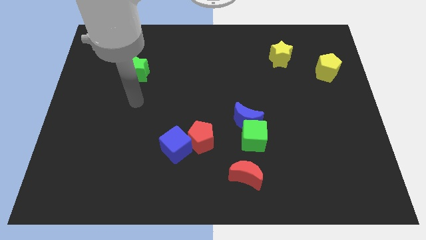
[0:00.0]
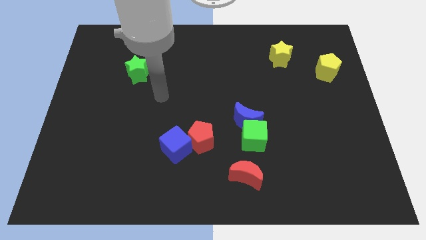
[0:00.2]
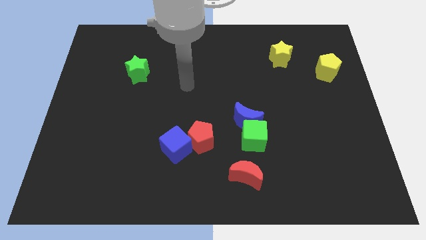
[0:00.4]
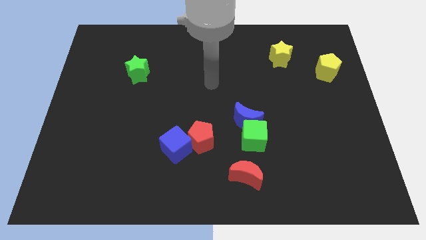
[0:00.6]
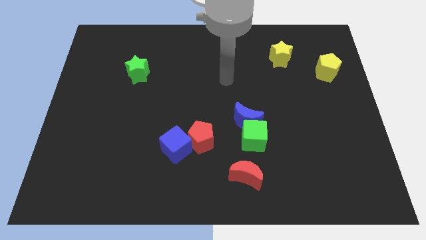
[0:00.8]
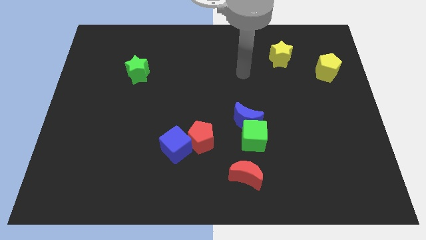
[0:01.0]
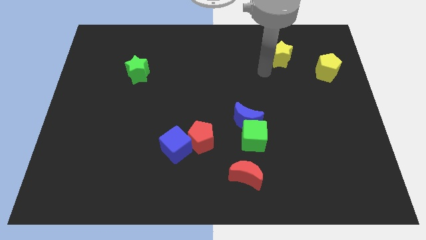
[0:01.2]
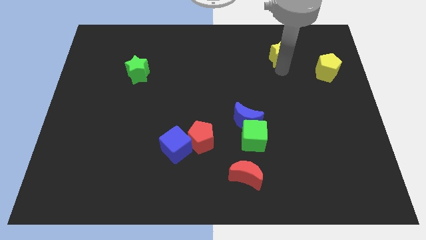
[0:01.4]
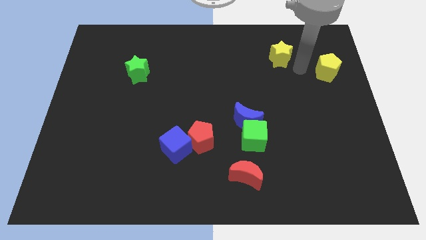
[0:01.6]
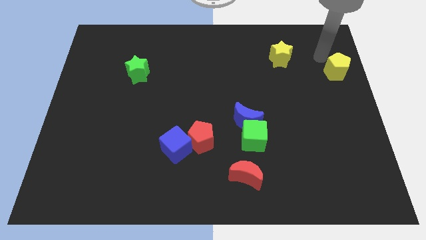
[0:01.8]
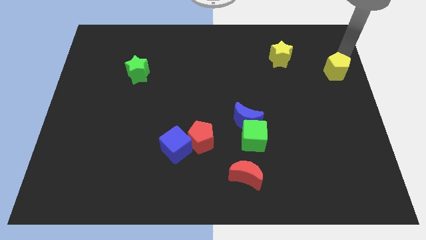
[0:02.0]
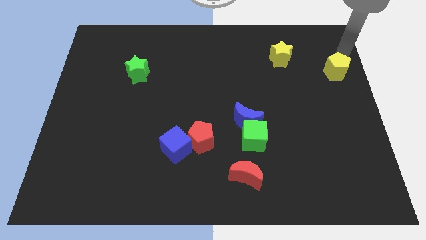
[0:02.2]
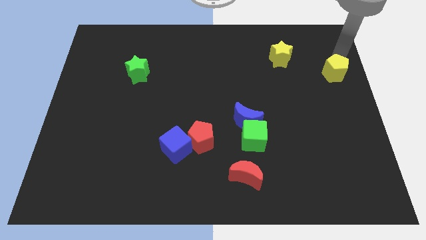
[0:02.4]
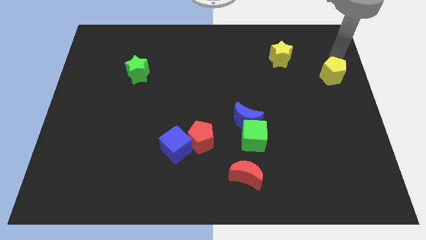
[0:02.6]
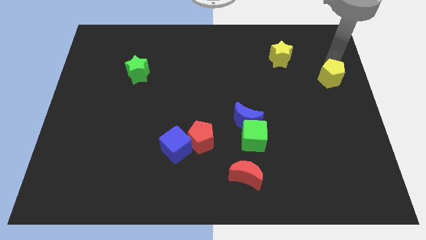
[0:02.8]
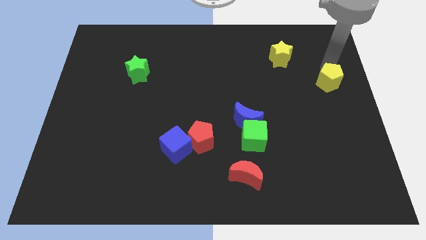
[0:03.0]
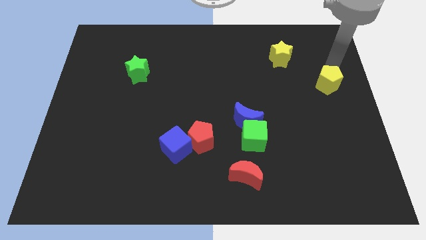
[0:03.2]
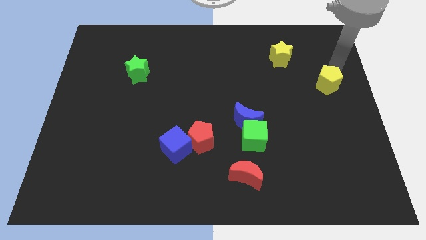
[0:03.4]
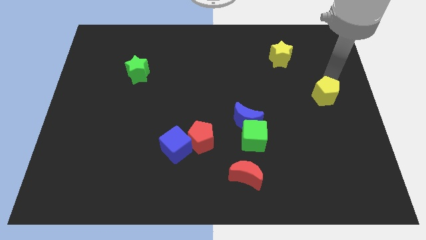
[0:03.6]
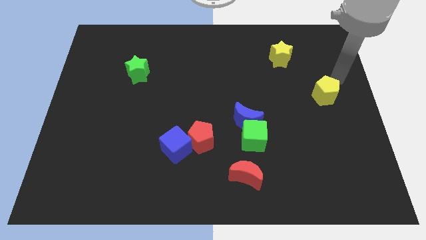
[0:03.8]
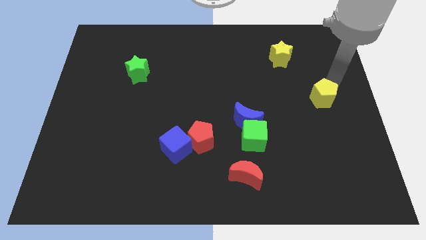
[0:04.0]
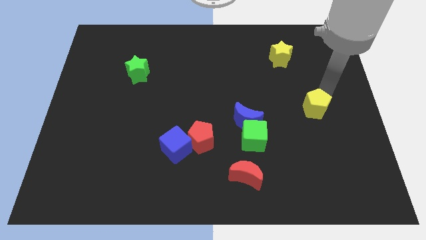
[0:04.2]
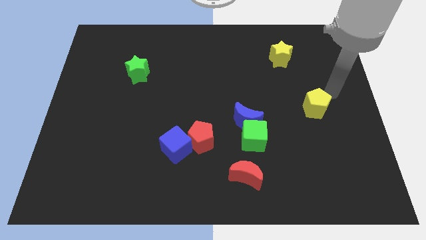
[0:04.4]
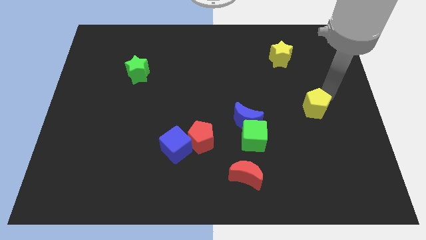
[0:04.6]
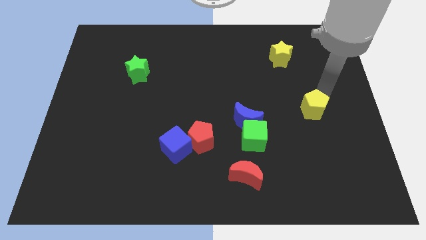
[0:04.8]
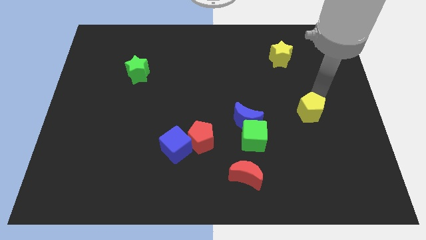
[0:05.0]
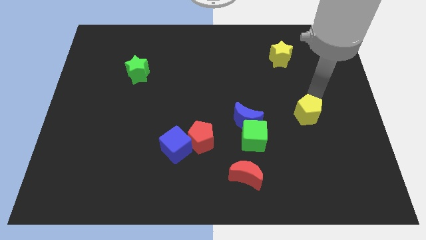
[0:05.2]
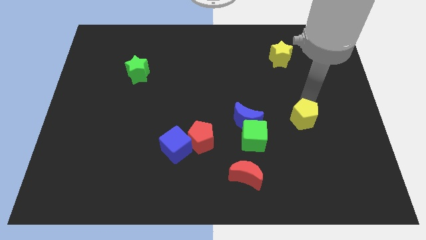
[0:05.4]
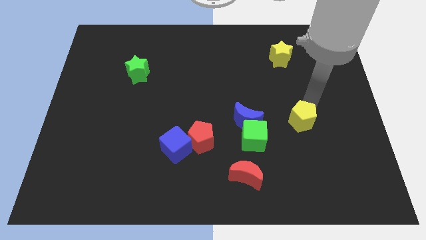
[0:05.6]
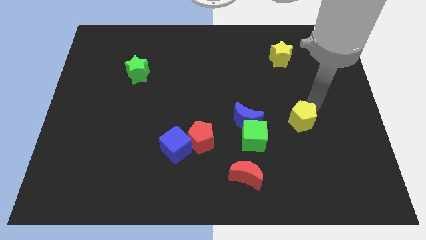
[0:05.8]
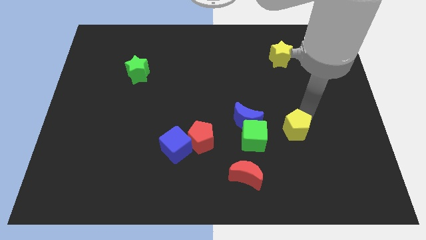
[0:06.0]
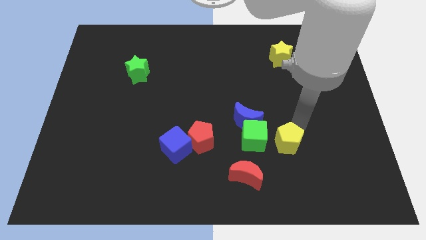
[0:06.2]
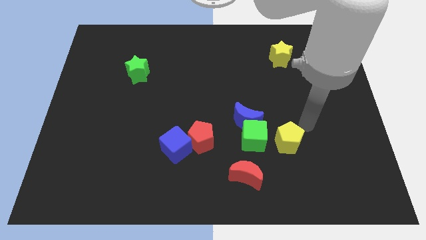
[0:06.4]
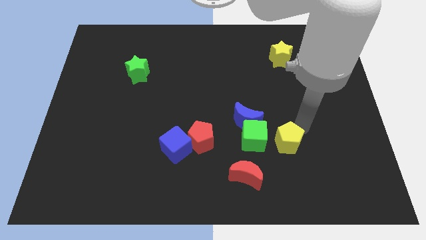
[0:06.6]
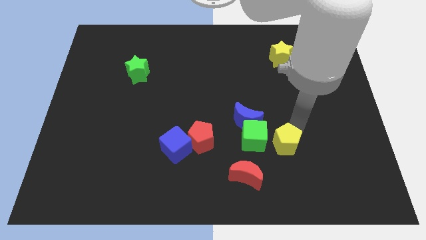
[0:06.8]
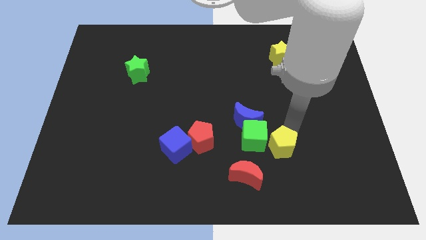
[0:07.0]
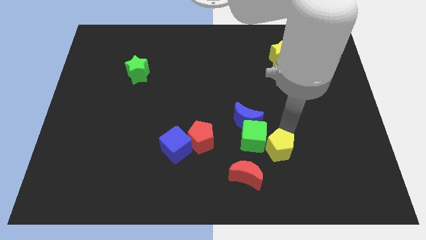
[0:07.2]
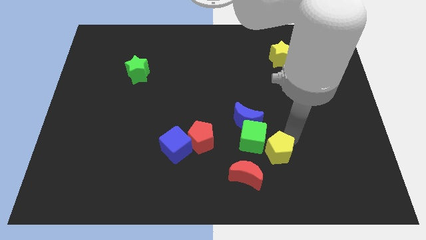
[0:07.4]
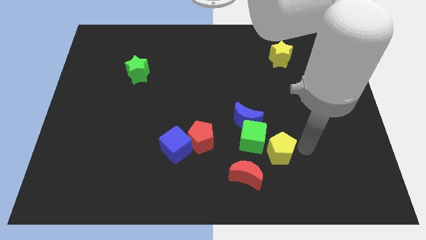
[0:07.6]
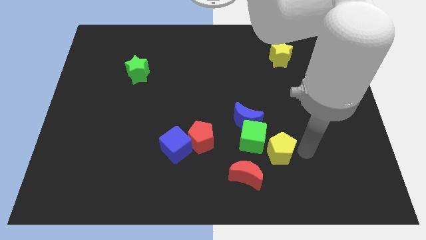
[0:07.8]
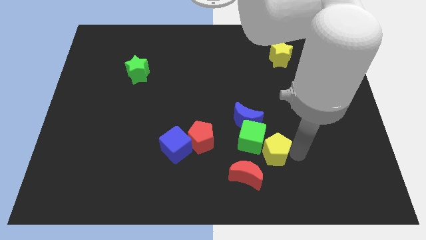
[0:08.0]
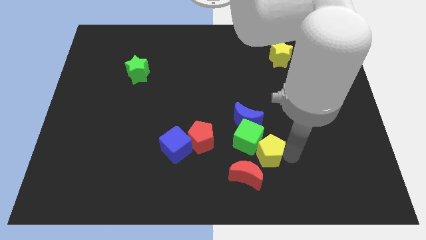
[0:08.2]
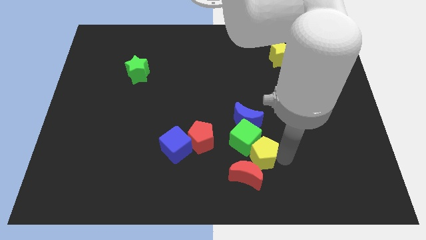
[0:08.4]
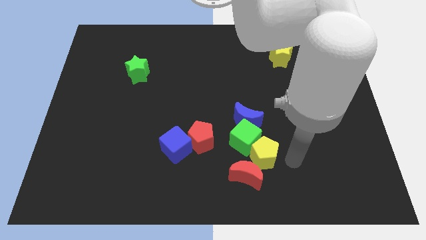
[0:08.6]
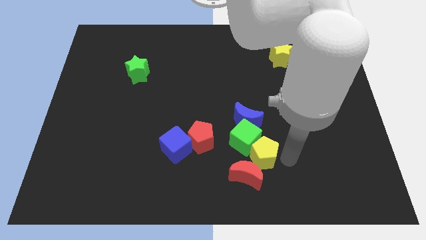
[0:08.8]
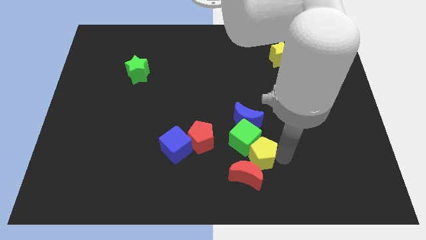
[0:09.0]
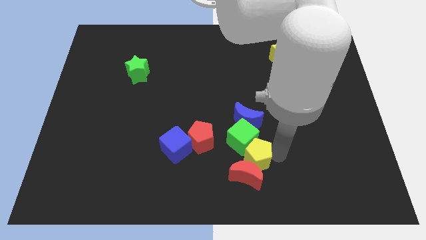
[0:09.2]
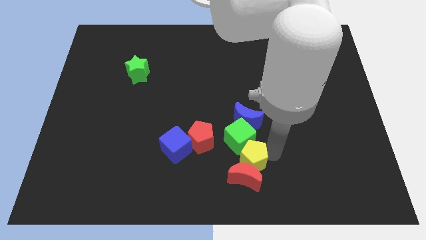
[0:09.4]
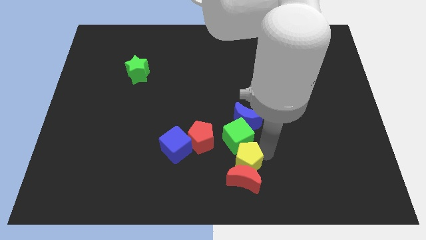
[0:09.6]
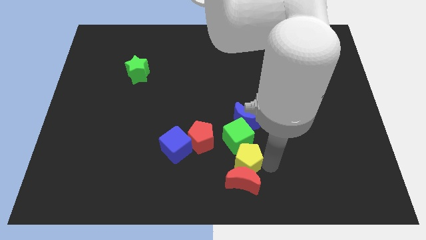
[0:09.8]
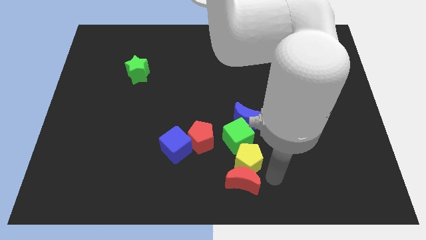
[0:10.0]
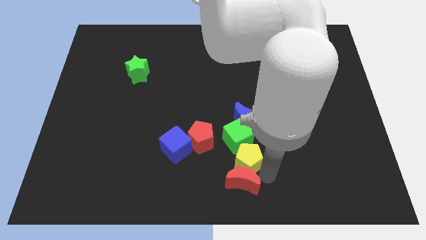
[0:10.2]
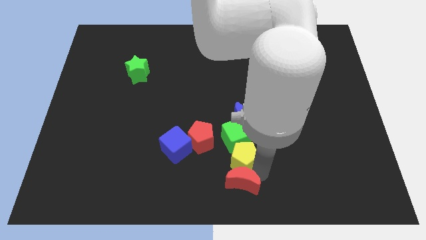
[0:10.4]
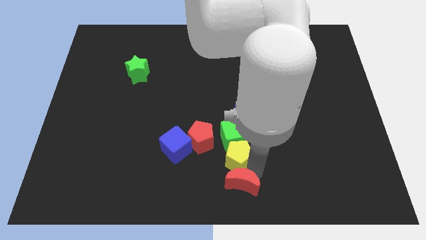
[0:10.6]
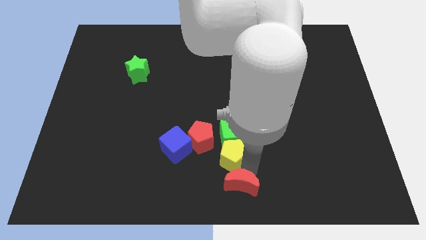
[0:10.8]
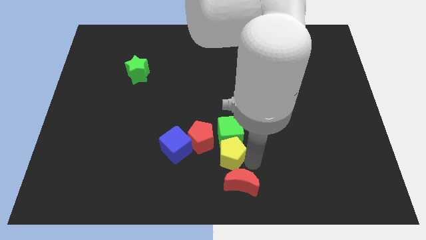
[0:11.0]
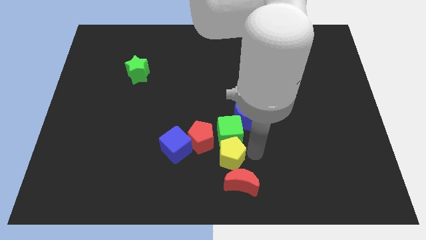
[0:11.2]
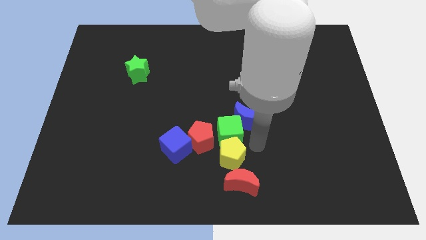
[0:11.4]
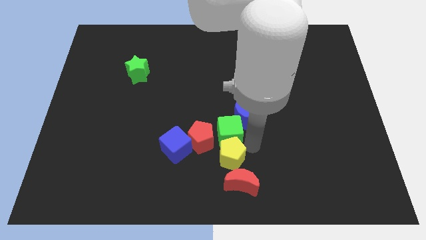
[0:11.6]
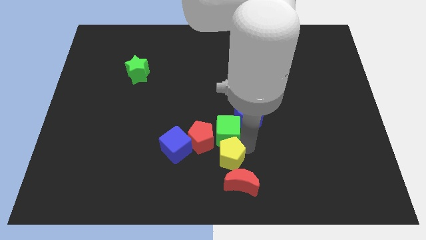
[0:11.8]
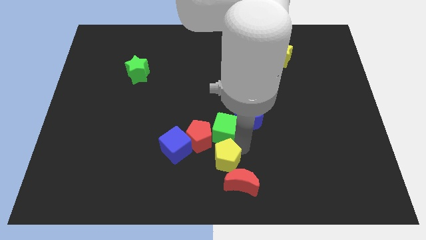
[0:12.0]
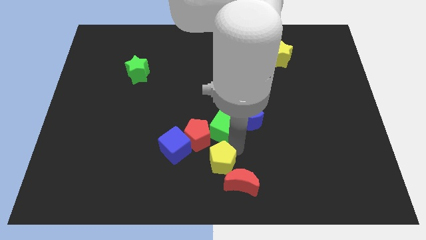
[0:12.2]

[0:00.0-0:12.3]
push the yellow pentagon to the bottom side of the red pentagon

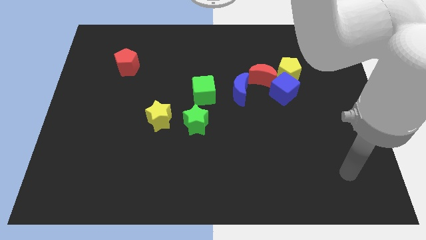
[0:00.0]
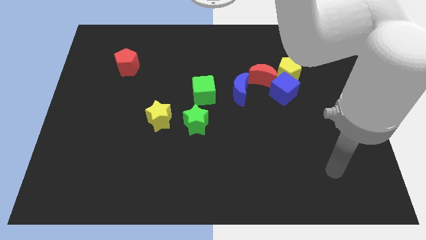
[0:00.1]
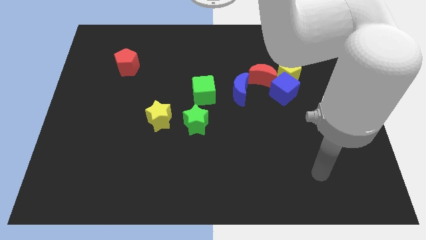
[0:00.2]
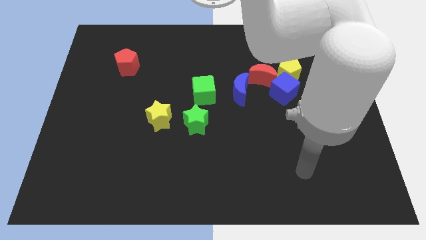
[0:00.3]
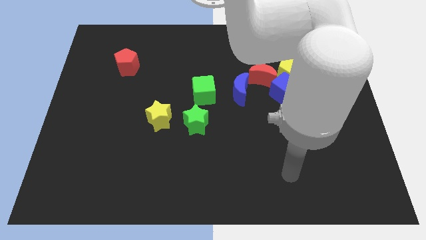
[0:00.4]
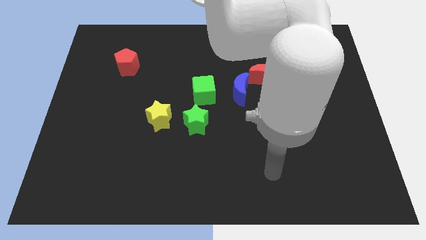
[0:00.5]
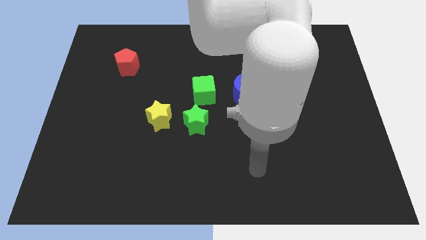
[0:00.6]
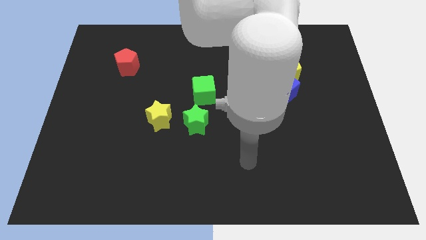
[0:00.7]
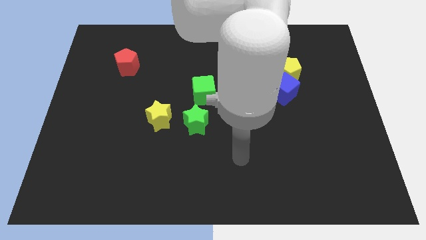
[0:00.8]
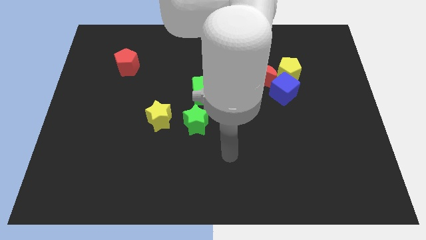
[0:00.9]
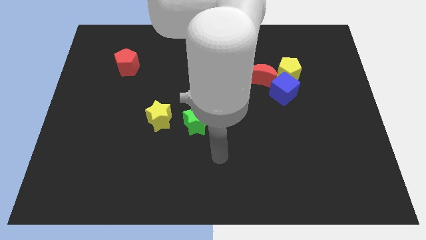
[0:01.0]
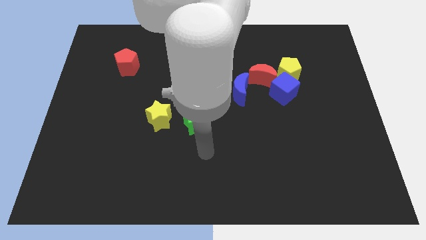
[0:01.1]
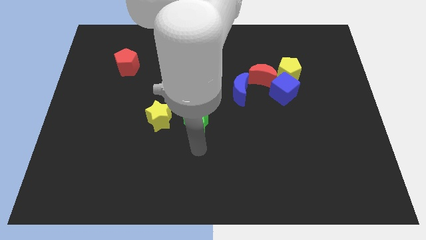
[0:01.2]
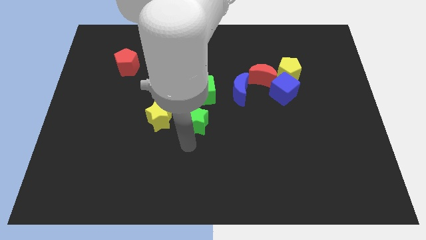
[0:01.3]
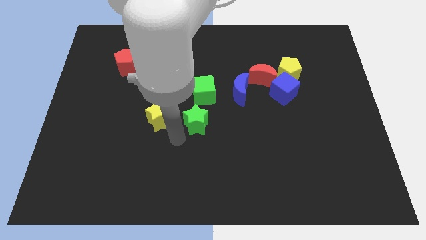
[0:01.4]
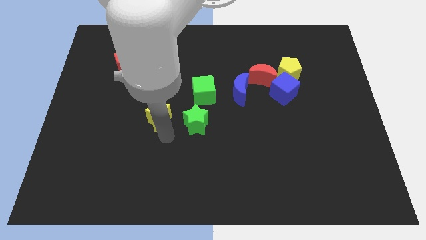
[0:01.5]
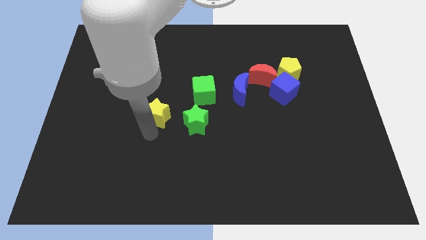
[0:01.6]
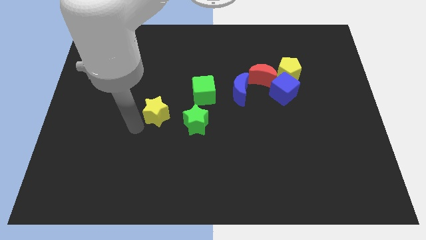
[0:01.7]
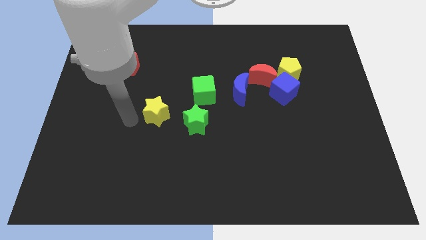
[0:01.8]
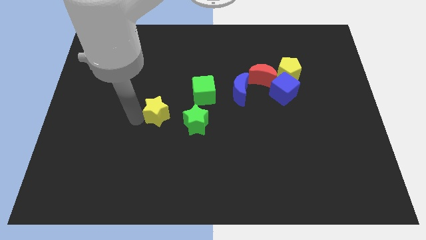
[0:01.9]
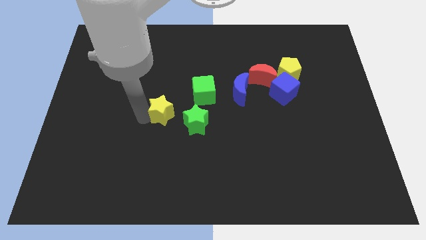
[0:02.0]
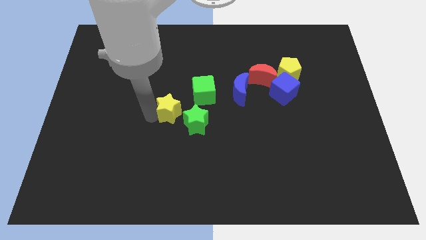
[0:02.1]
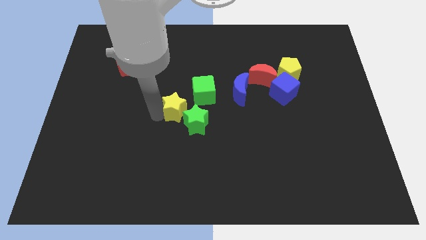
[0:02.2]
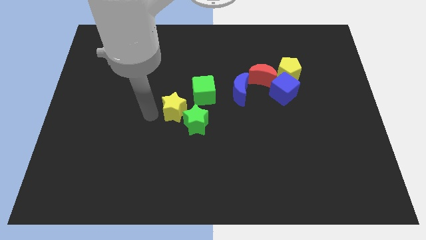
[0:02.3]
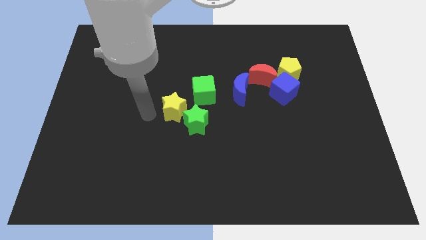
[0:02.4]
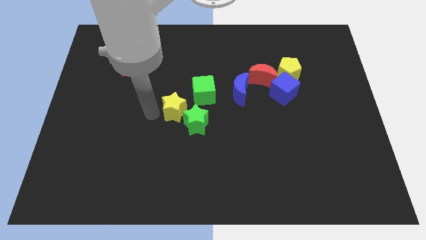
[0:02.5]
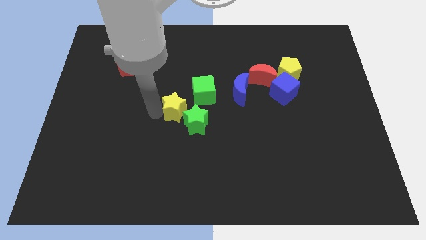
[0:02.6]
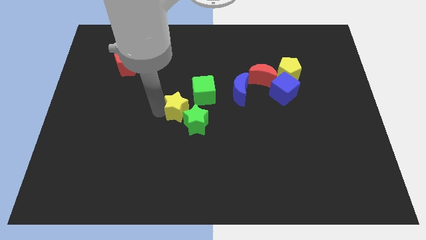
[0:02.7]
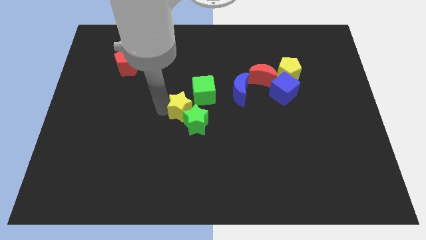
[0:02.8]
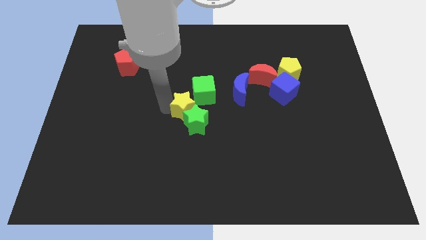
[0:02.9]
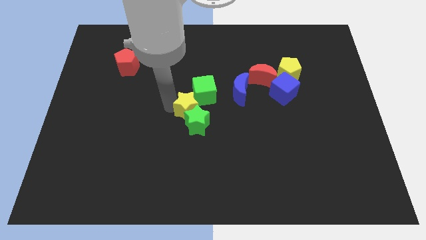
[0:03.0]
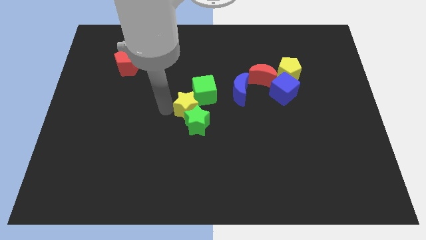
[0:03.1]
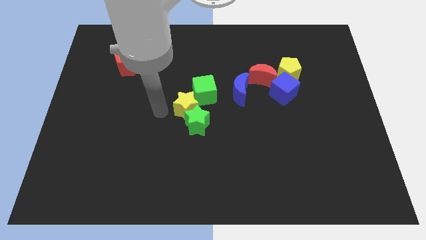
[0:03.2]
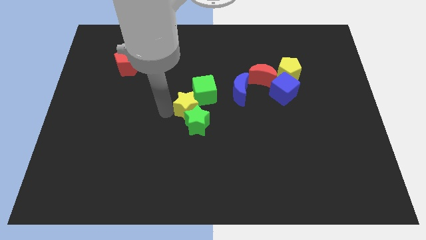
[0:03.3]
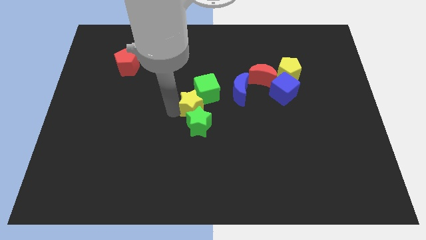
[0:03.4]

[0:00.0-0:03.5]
slide the yellow star to the top right of the green star
